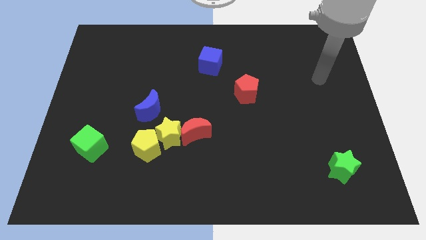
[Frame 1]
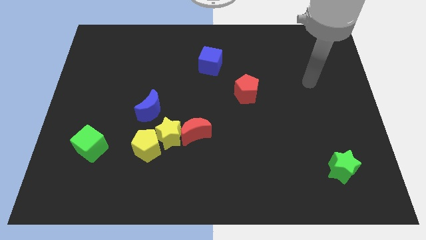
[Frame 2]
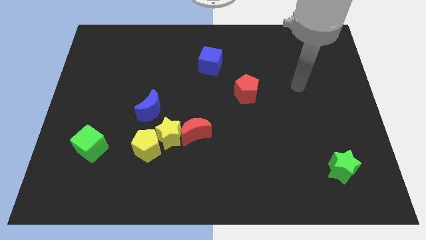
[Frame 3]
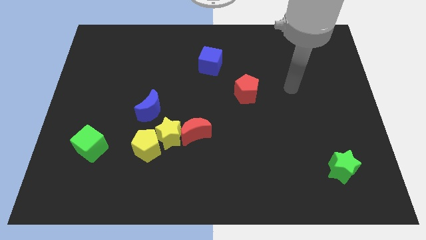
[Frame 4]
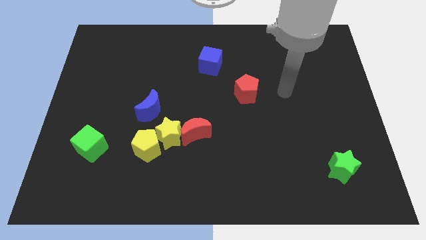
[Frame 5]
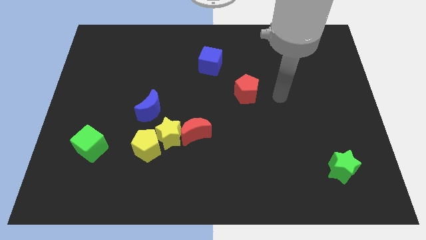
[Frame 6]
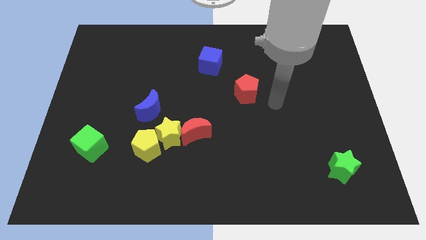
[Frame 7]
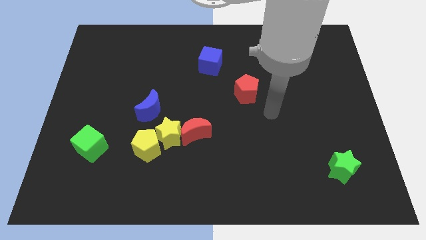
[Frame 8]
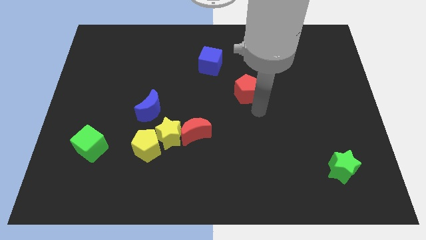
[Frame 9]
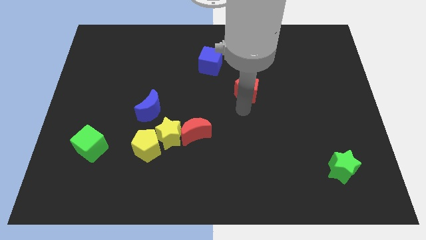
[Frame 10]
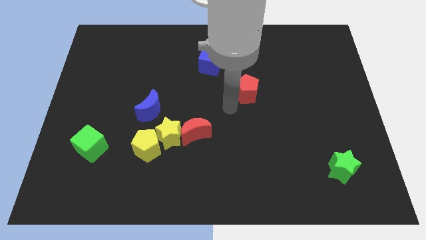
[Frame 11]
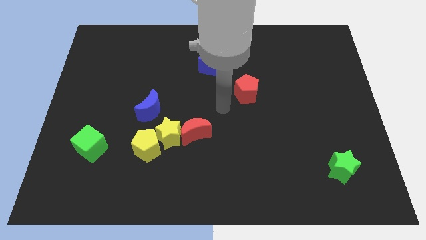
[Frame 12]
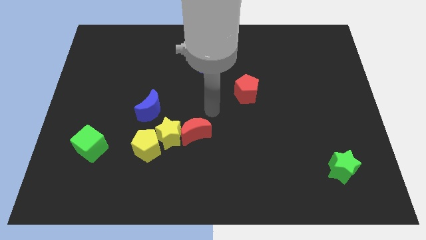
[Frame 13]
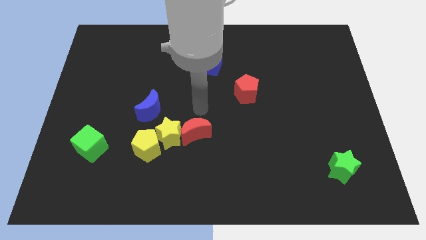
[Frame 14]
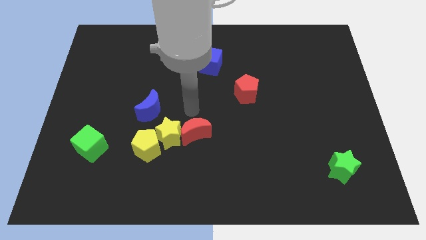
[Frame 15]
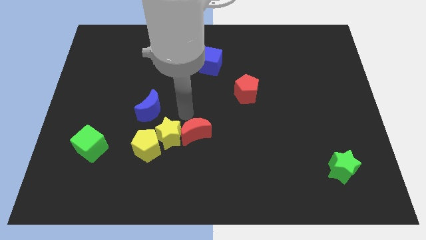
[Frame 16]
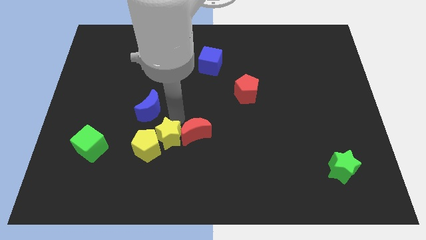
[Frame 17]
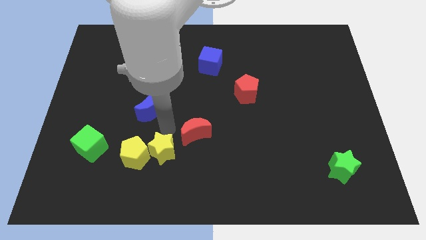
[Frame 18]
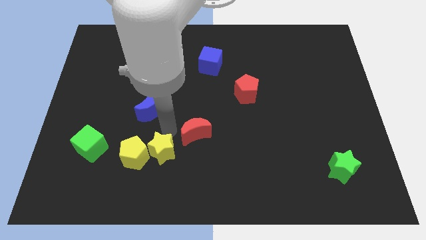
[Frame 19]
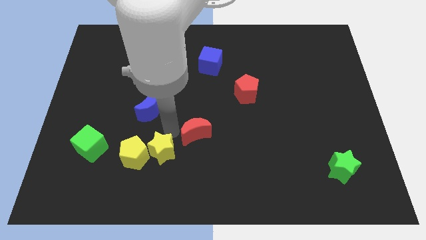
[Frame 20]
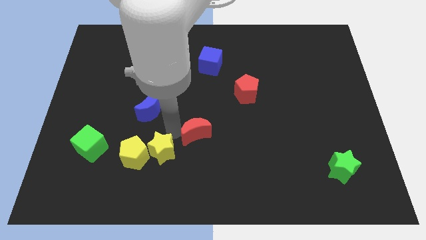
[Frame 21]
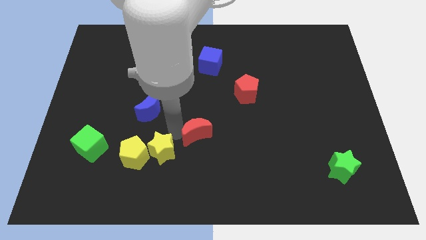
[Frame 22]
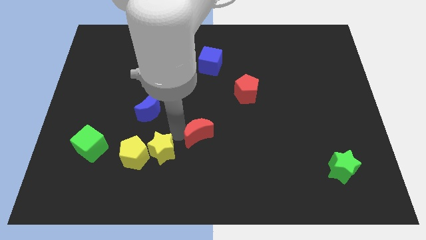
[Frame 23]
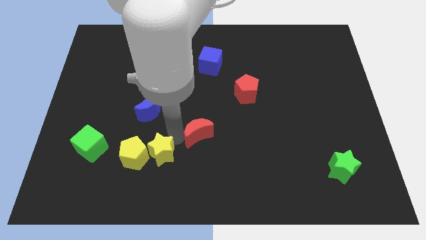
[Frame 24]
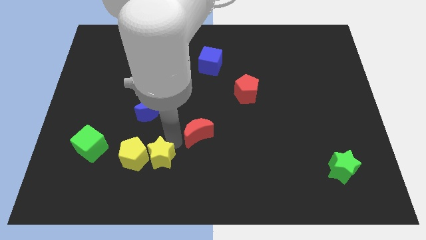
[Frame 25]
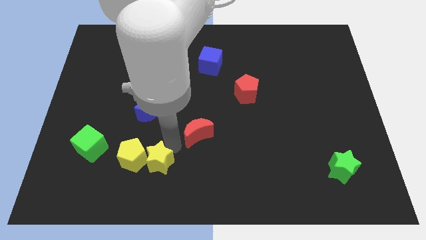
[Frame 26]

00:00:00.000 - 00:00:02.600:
move the red moon away from the yellow star

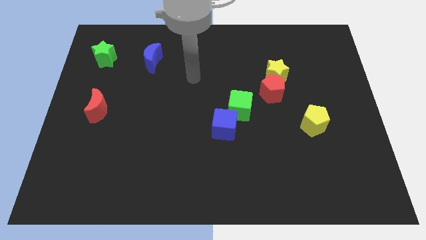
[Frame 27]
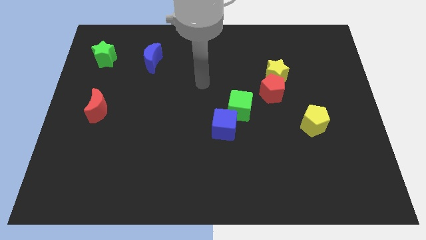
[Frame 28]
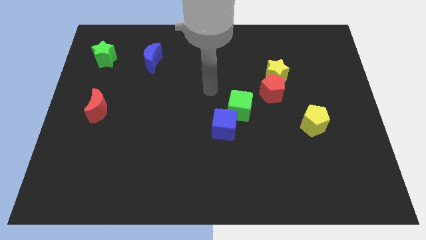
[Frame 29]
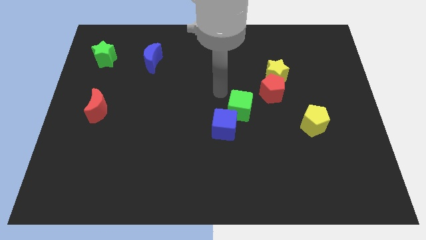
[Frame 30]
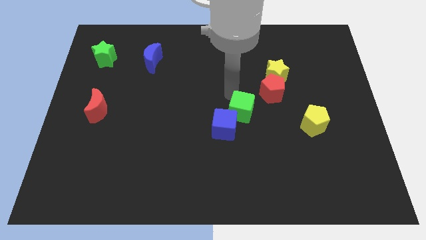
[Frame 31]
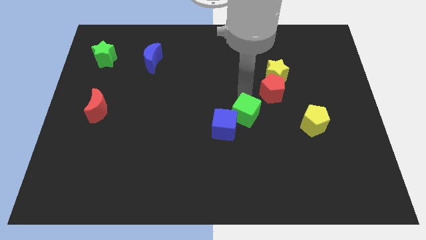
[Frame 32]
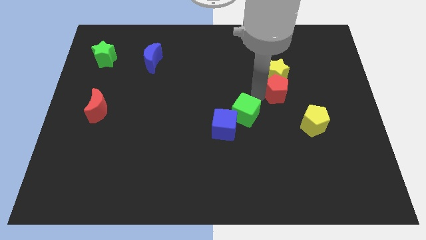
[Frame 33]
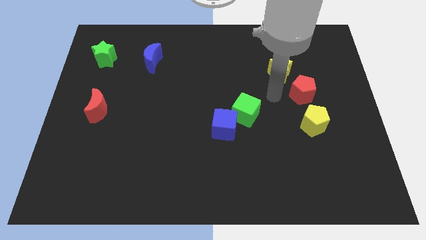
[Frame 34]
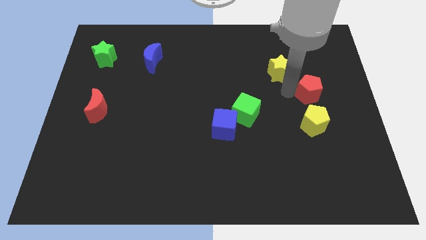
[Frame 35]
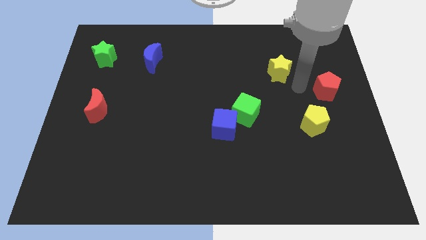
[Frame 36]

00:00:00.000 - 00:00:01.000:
move the yellow star away from the red pentagon

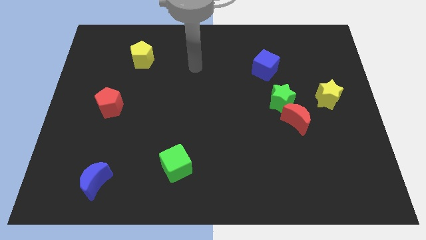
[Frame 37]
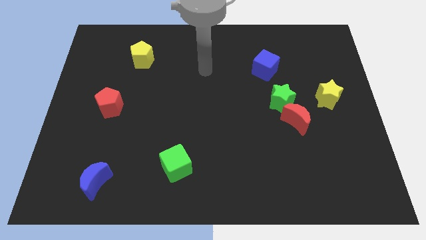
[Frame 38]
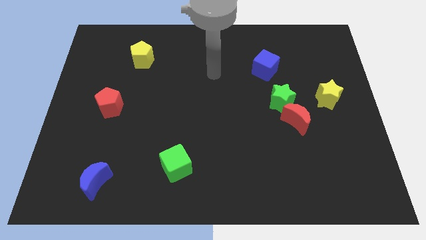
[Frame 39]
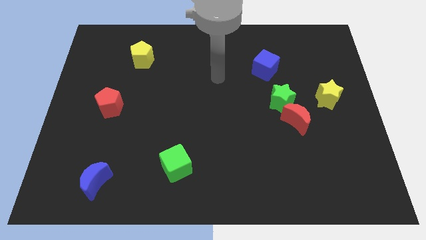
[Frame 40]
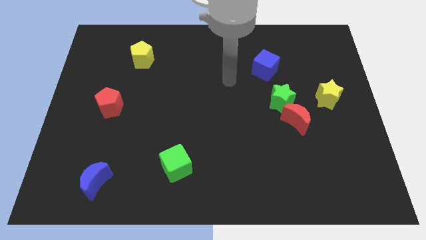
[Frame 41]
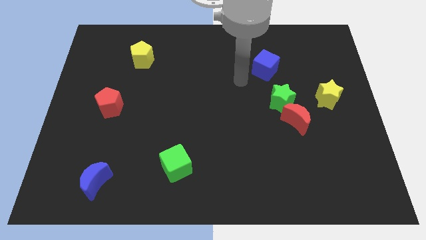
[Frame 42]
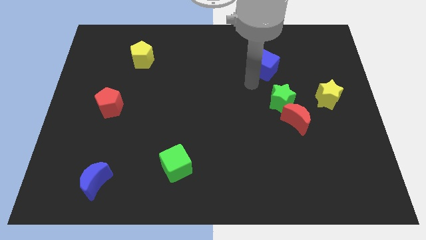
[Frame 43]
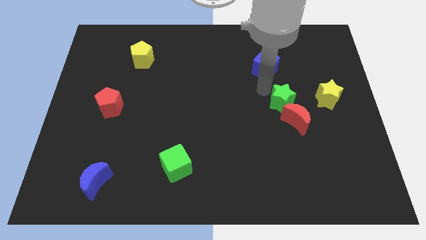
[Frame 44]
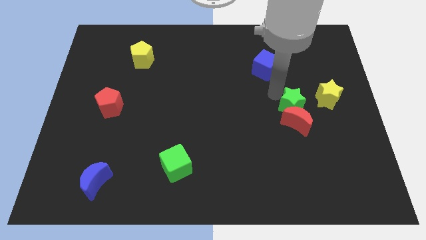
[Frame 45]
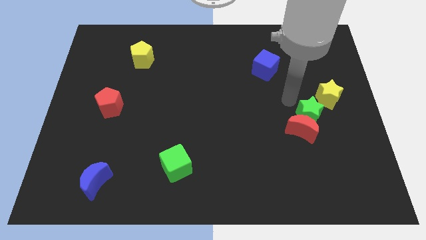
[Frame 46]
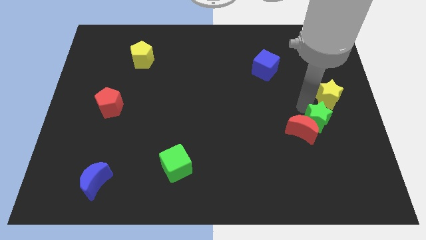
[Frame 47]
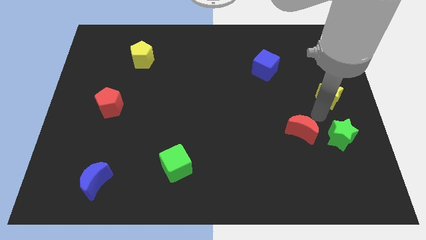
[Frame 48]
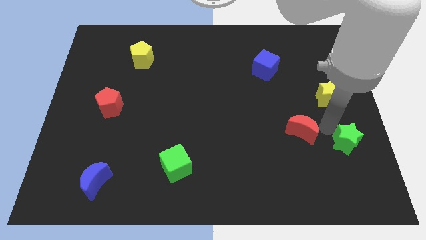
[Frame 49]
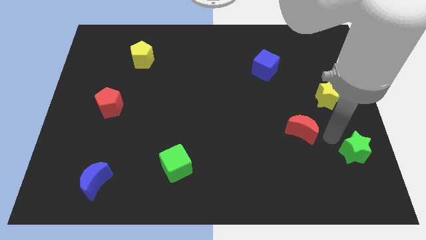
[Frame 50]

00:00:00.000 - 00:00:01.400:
separate the red moon from the green star

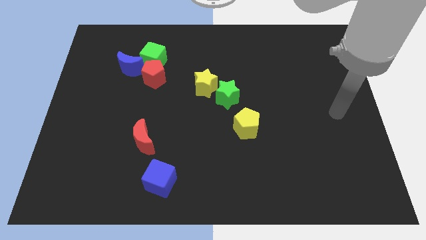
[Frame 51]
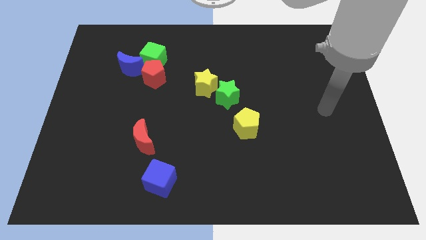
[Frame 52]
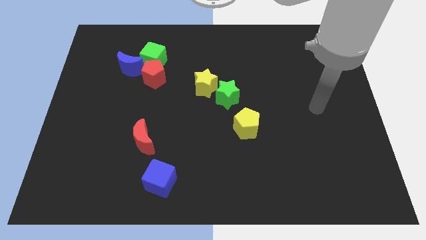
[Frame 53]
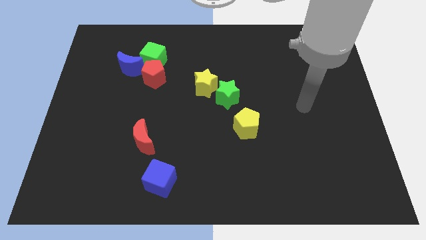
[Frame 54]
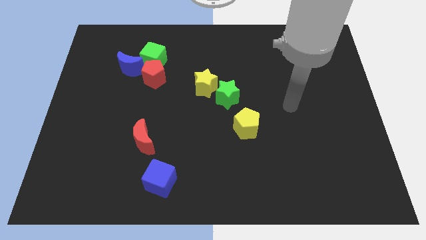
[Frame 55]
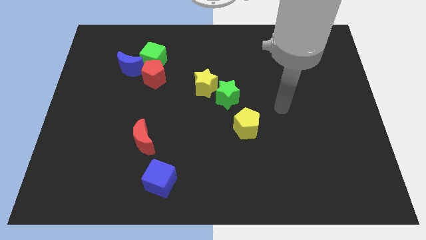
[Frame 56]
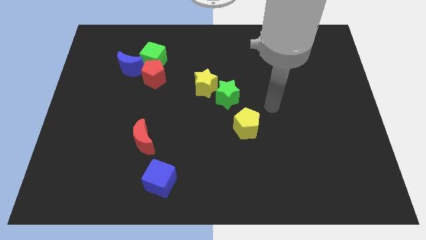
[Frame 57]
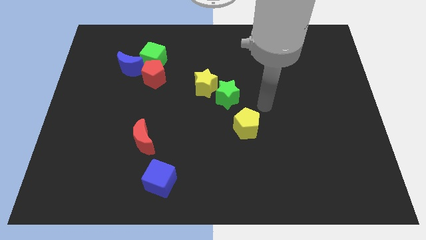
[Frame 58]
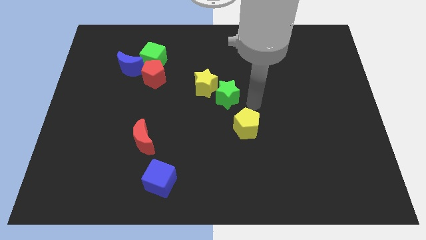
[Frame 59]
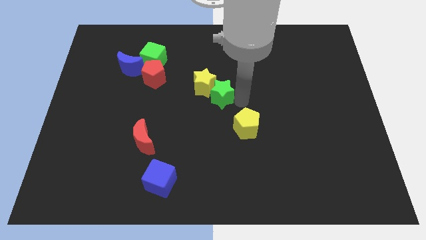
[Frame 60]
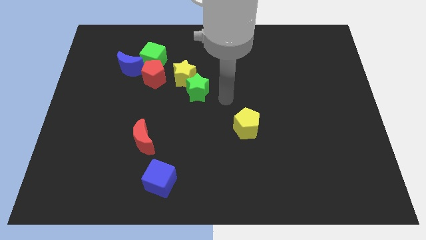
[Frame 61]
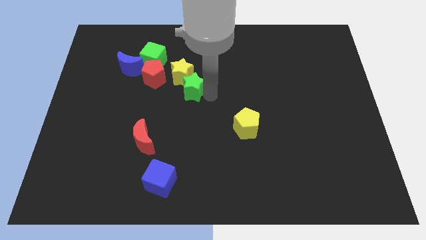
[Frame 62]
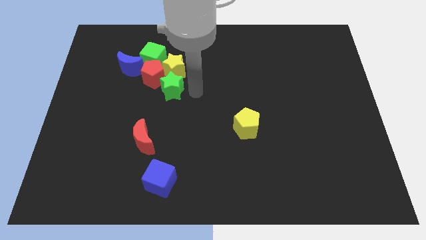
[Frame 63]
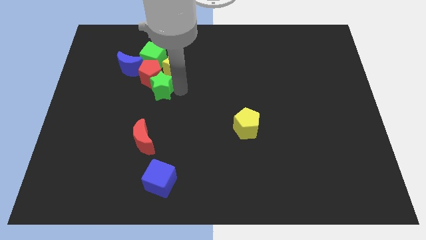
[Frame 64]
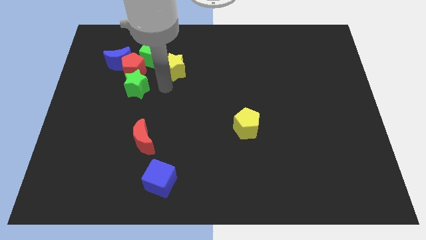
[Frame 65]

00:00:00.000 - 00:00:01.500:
pull the yellow star apart from the green star

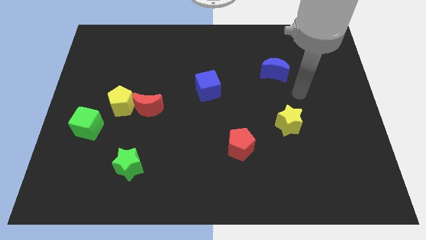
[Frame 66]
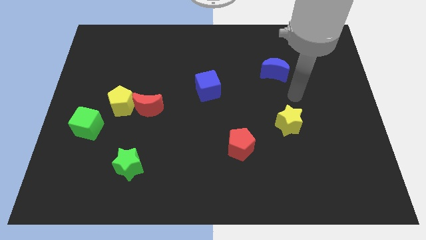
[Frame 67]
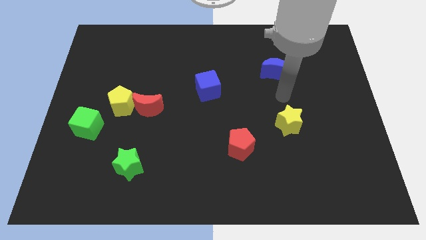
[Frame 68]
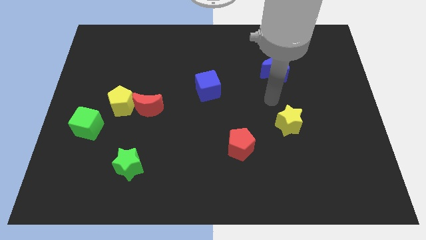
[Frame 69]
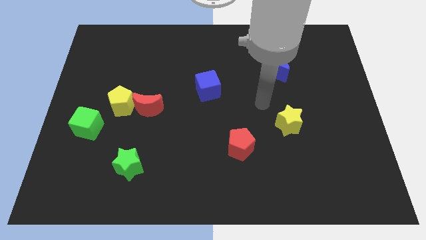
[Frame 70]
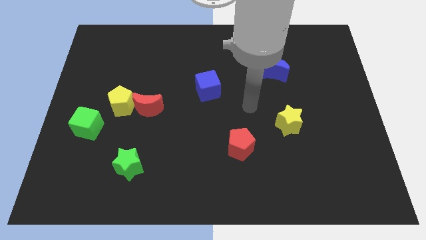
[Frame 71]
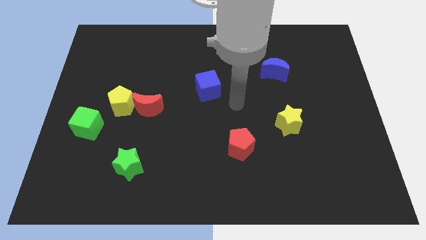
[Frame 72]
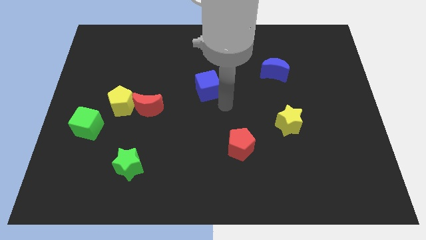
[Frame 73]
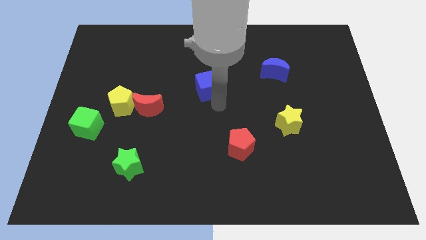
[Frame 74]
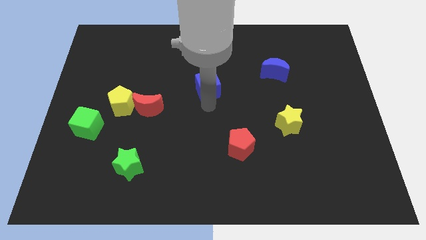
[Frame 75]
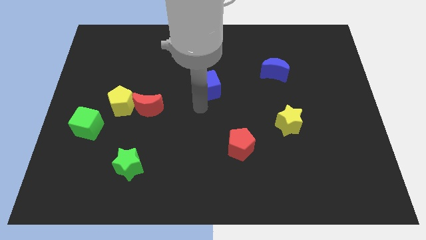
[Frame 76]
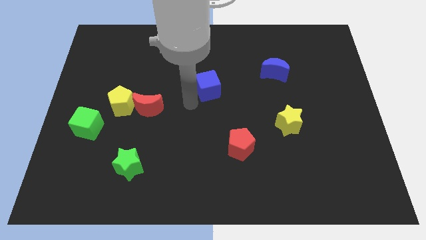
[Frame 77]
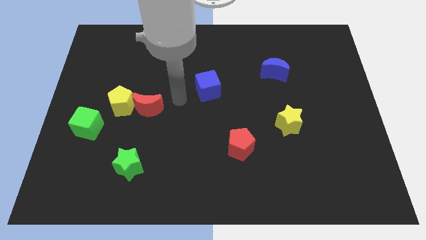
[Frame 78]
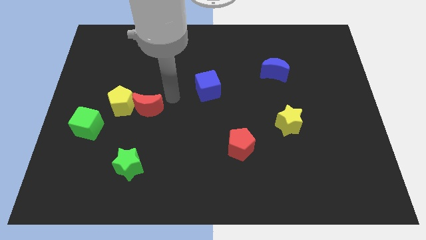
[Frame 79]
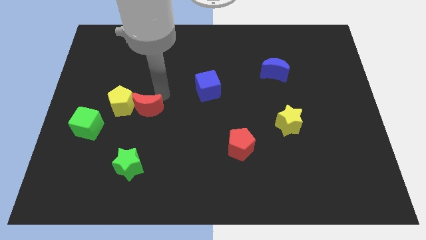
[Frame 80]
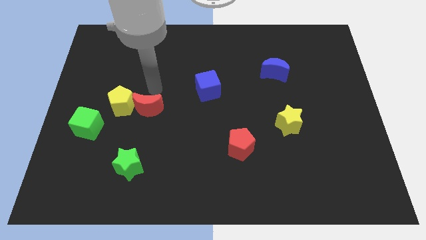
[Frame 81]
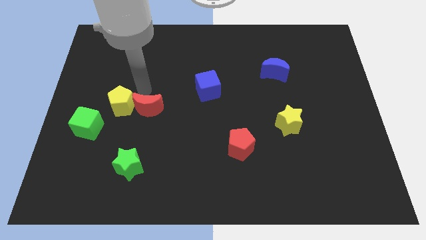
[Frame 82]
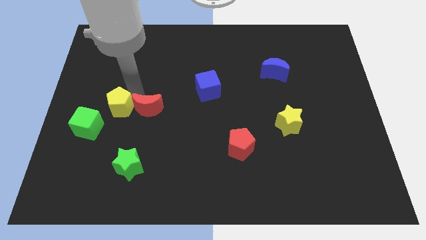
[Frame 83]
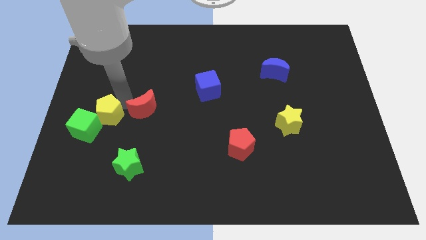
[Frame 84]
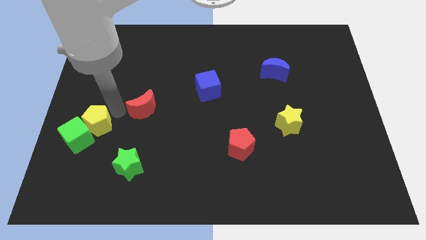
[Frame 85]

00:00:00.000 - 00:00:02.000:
pull the red moon apart from the yellow pentagon

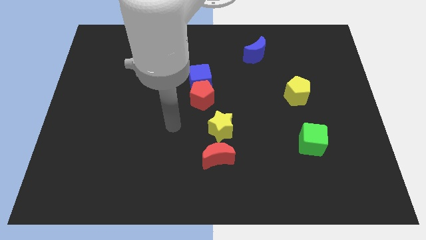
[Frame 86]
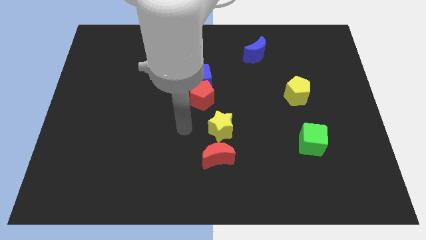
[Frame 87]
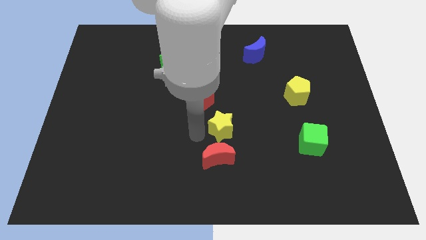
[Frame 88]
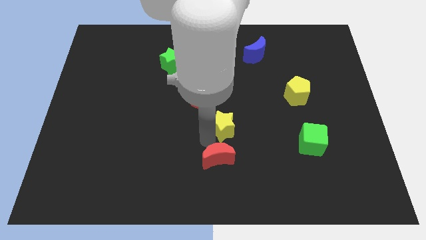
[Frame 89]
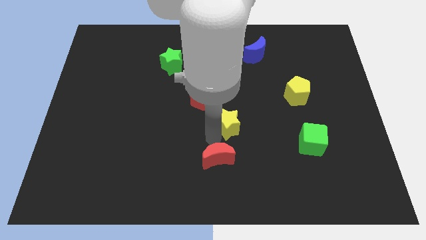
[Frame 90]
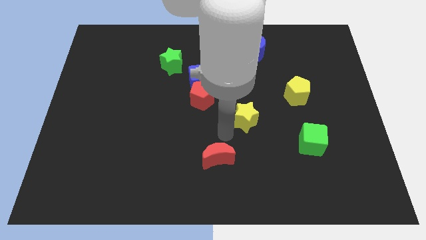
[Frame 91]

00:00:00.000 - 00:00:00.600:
separate the red moon from the yellow star

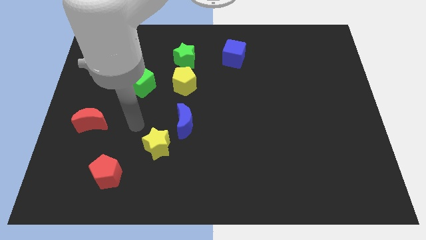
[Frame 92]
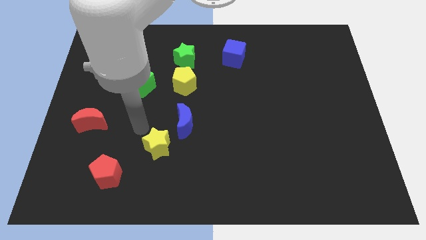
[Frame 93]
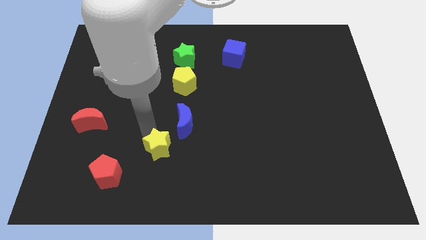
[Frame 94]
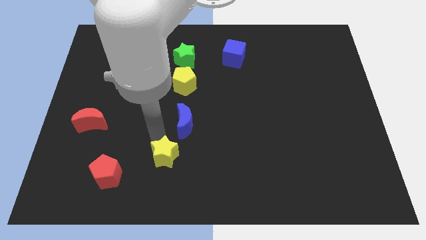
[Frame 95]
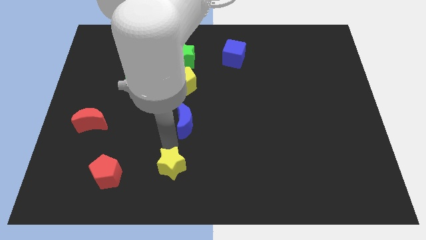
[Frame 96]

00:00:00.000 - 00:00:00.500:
pull the blue moon apart from the yellow star
